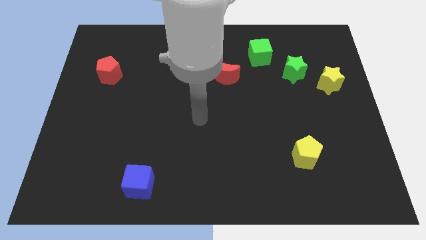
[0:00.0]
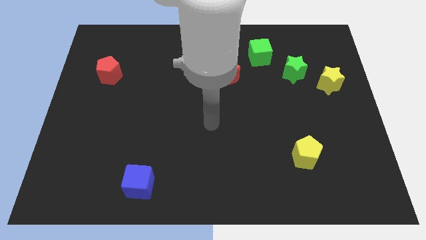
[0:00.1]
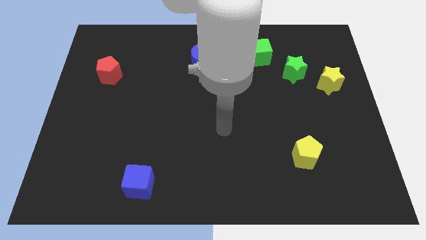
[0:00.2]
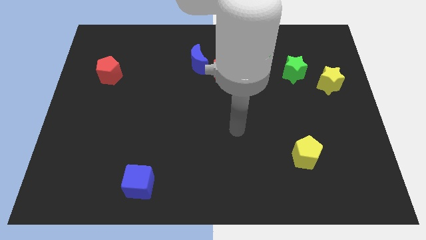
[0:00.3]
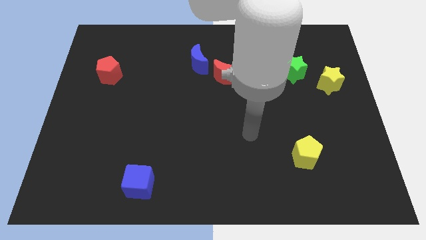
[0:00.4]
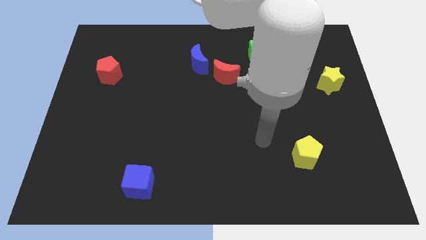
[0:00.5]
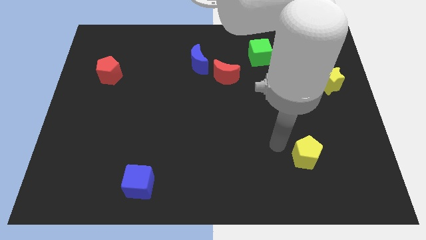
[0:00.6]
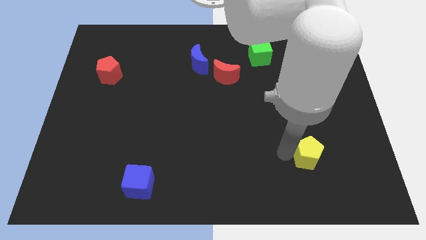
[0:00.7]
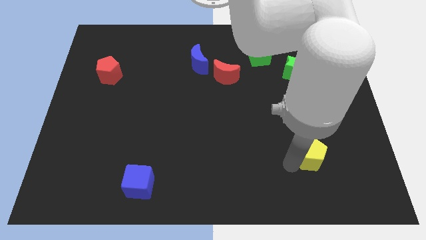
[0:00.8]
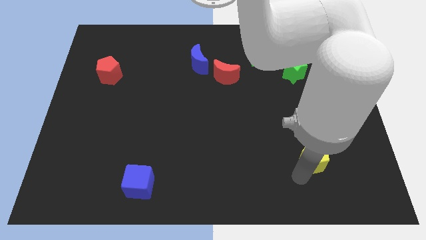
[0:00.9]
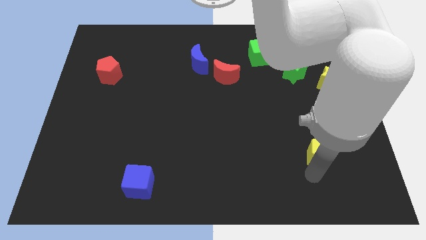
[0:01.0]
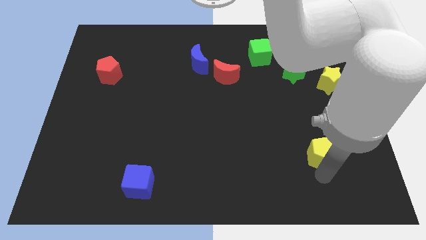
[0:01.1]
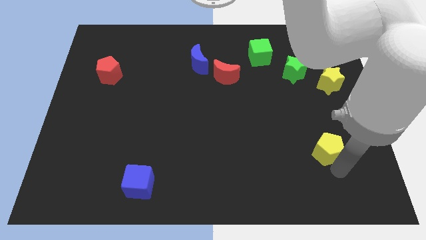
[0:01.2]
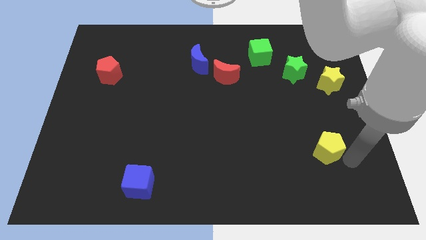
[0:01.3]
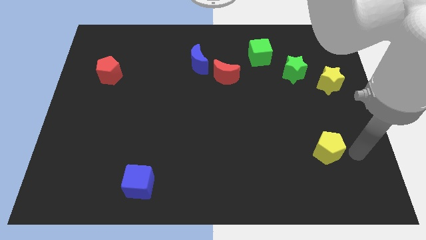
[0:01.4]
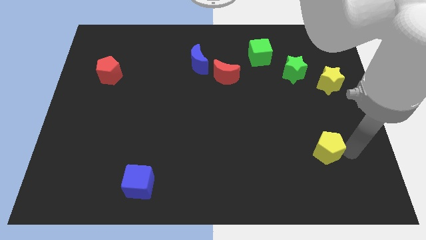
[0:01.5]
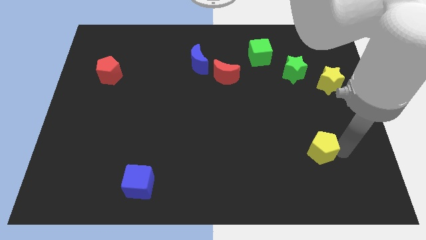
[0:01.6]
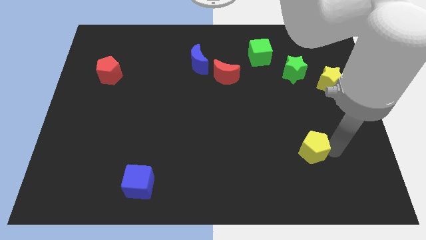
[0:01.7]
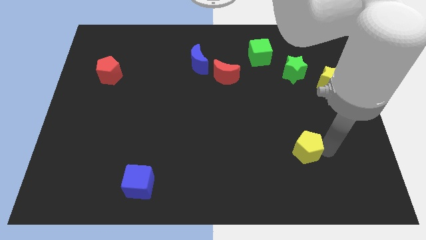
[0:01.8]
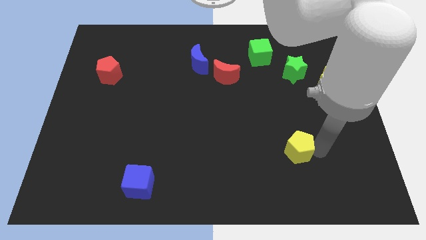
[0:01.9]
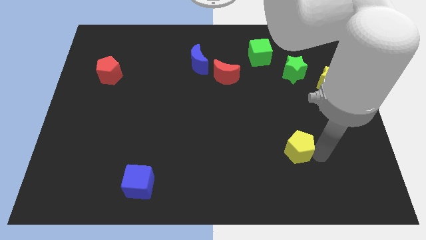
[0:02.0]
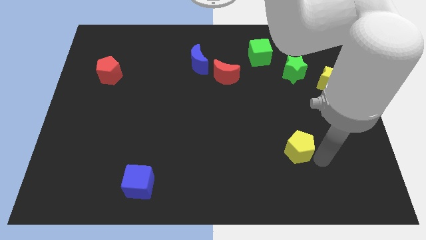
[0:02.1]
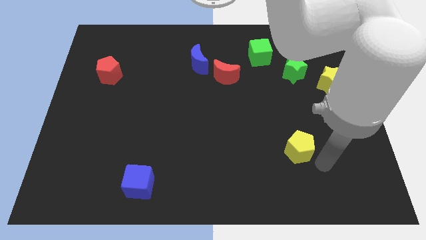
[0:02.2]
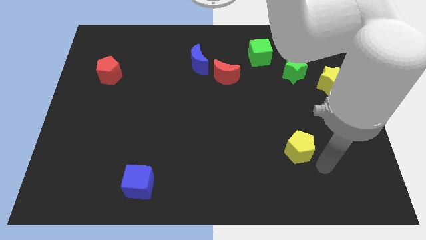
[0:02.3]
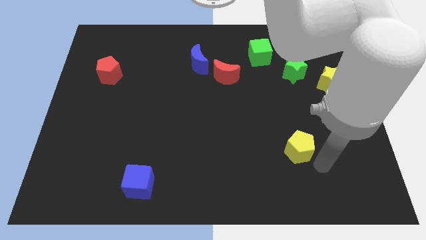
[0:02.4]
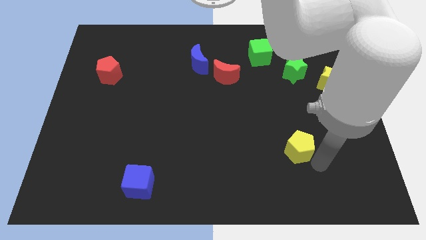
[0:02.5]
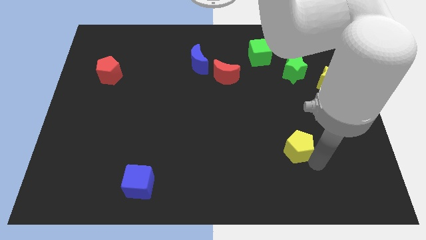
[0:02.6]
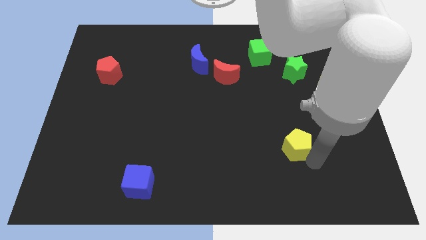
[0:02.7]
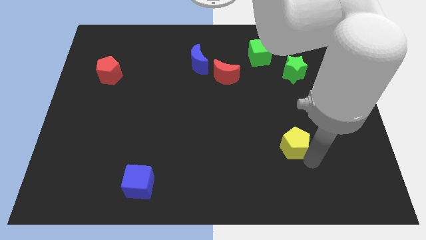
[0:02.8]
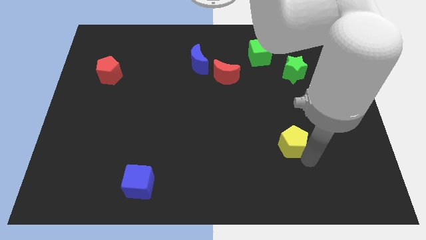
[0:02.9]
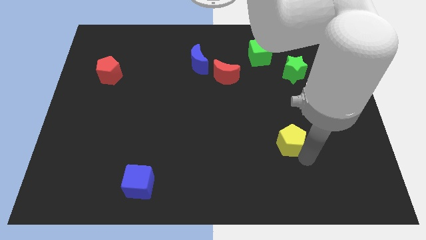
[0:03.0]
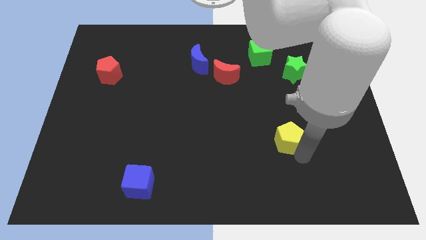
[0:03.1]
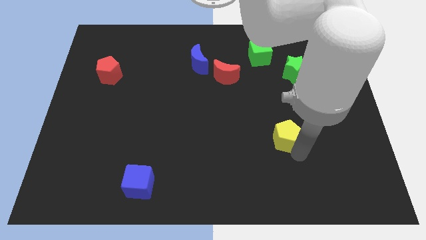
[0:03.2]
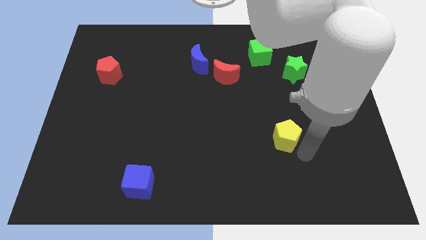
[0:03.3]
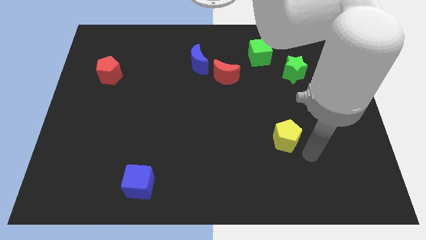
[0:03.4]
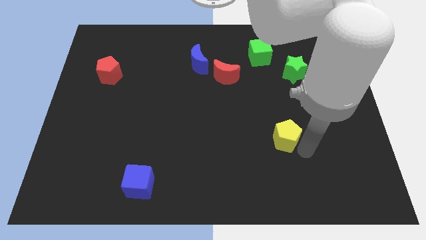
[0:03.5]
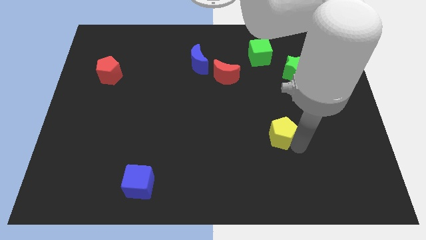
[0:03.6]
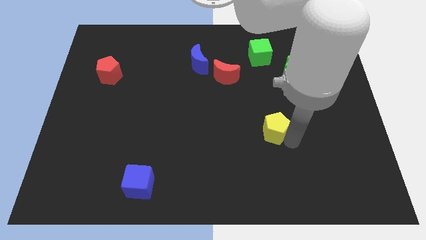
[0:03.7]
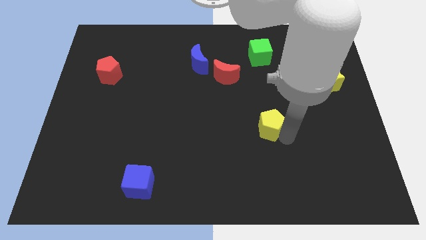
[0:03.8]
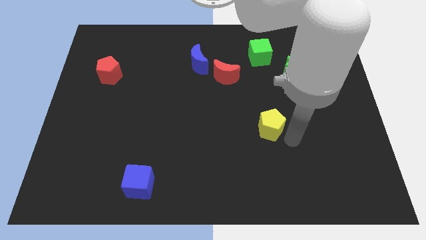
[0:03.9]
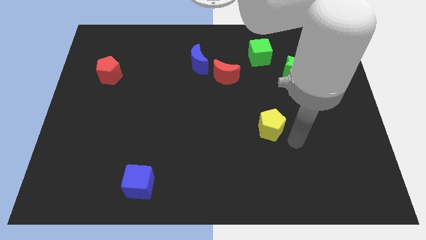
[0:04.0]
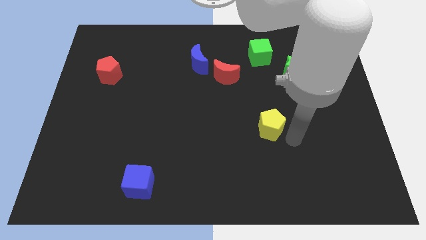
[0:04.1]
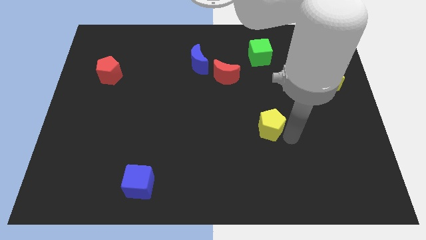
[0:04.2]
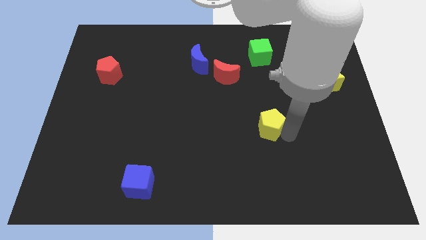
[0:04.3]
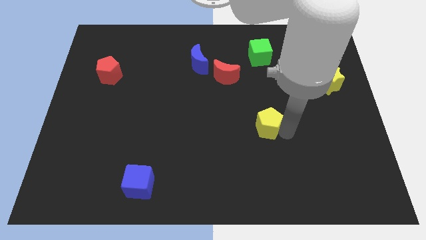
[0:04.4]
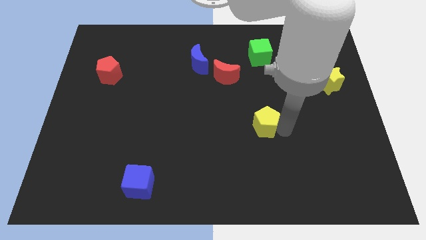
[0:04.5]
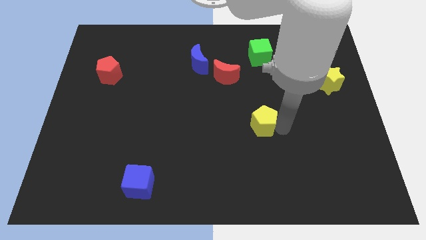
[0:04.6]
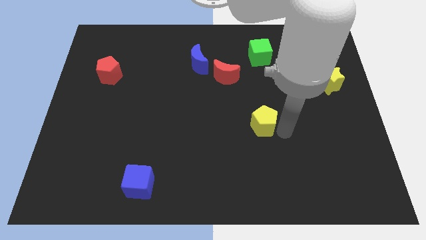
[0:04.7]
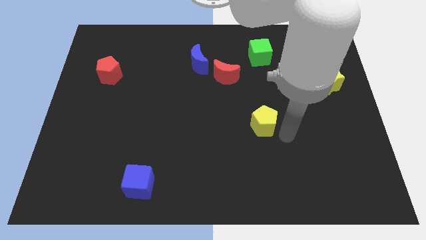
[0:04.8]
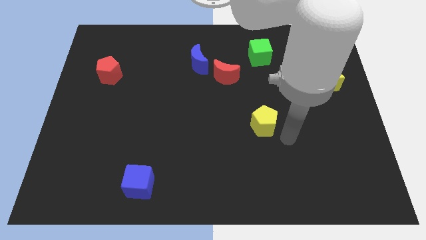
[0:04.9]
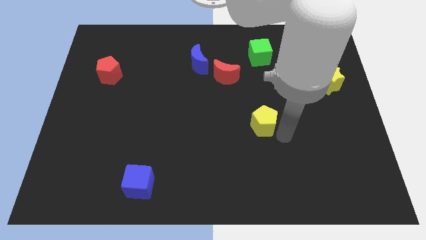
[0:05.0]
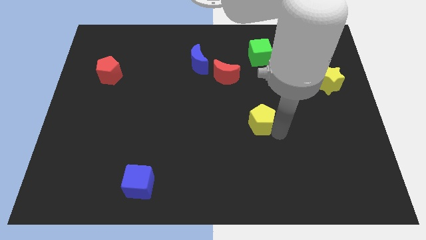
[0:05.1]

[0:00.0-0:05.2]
move the yellow pentagon to the center of the board

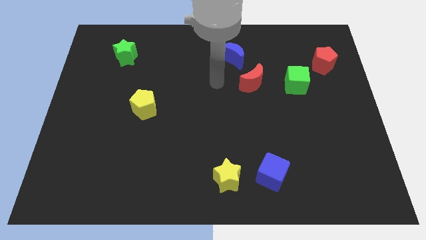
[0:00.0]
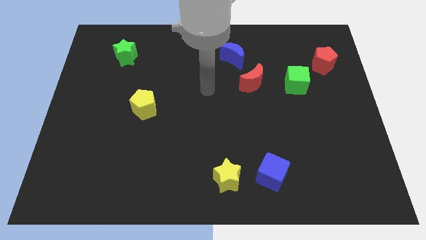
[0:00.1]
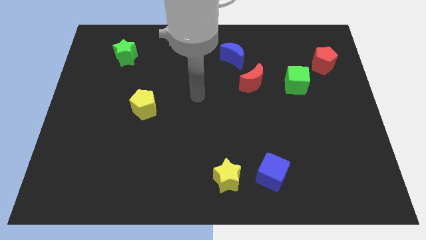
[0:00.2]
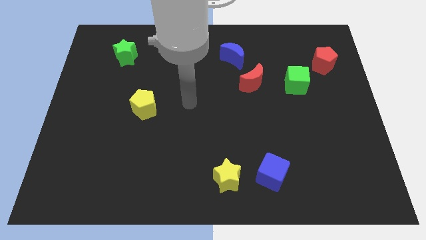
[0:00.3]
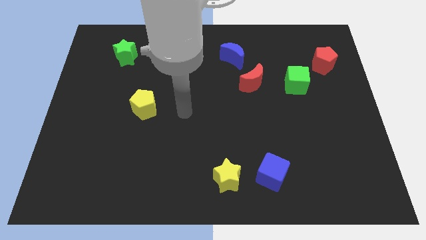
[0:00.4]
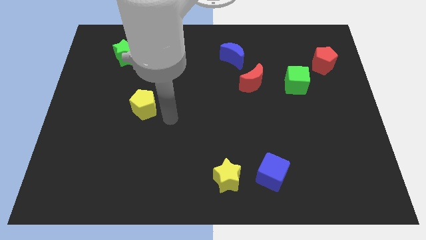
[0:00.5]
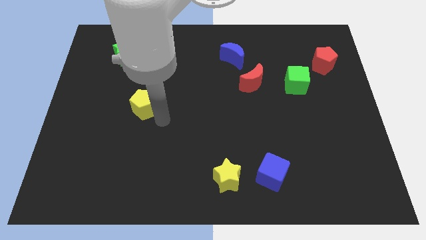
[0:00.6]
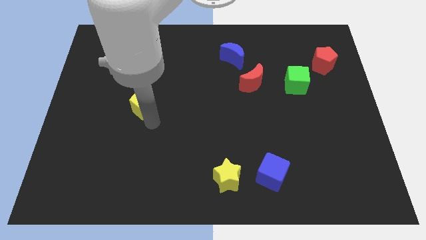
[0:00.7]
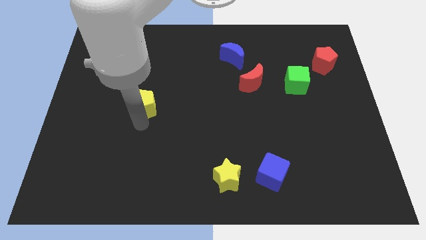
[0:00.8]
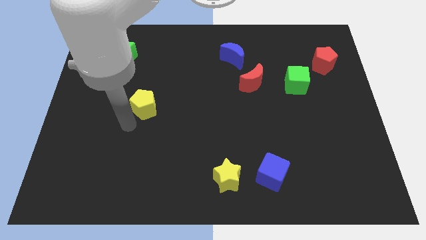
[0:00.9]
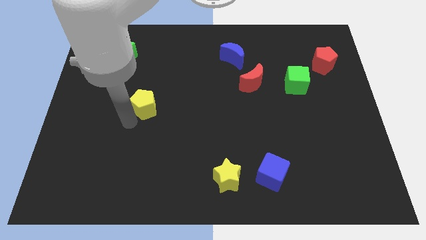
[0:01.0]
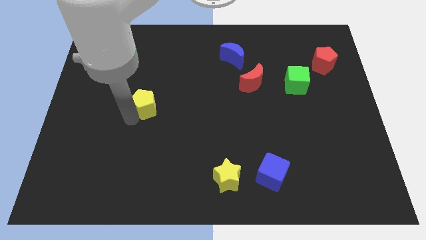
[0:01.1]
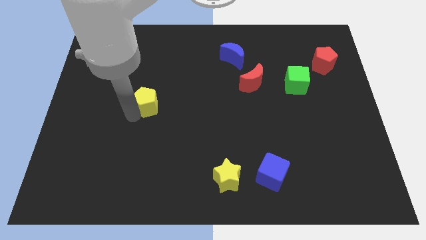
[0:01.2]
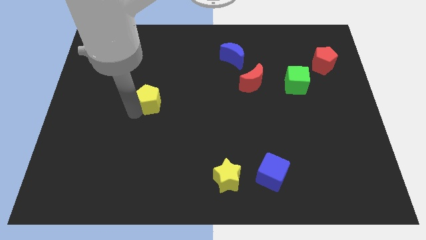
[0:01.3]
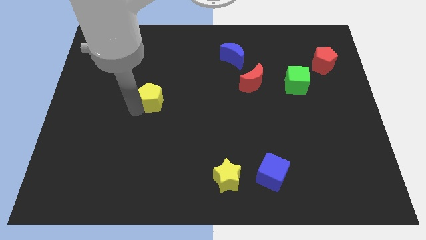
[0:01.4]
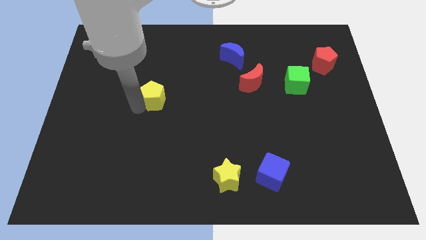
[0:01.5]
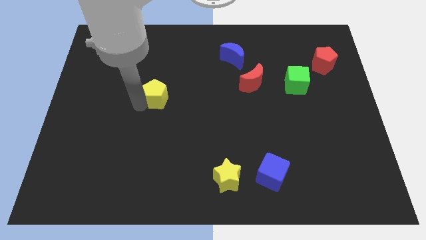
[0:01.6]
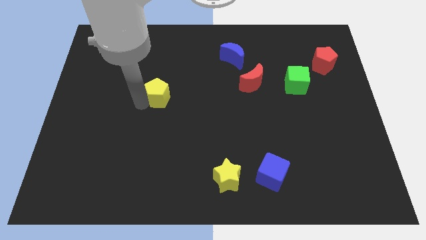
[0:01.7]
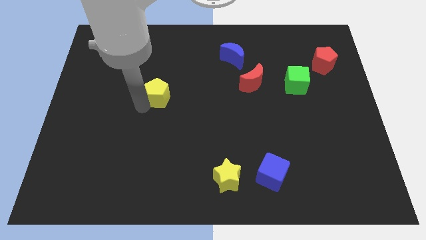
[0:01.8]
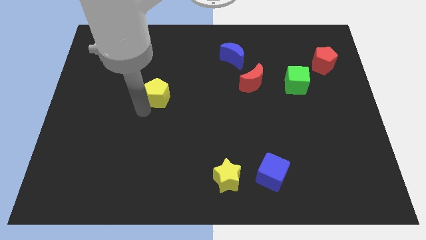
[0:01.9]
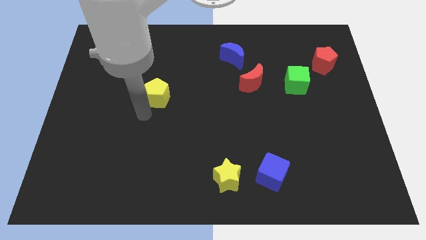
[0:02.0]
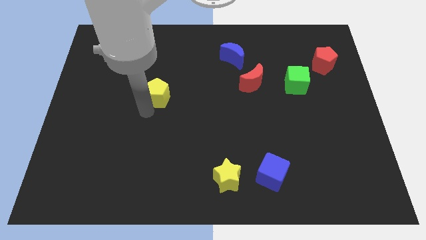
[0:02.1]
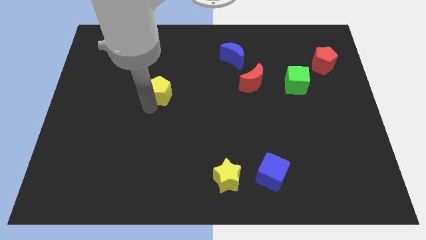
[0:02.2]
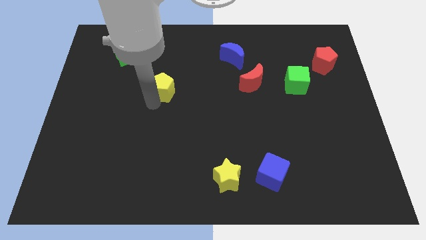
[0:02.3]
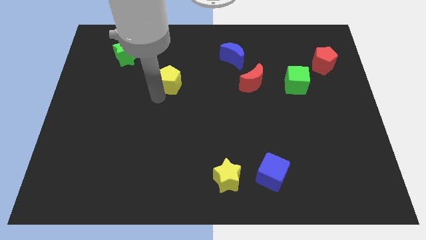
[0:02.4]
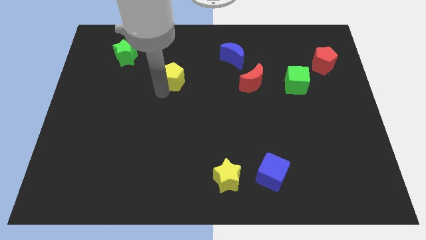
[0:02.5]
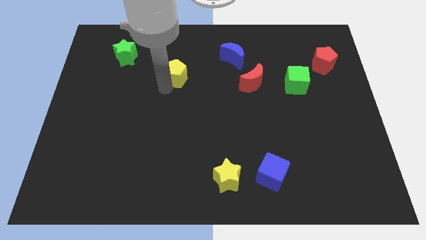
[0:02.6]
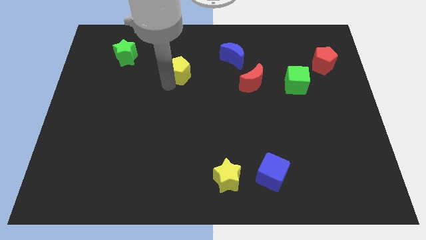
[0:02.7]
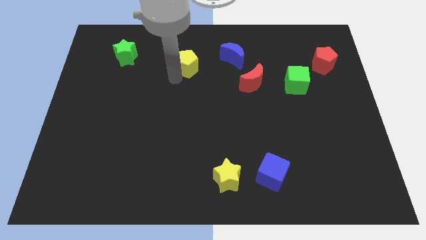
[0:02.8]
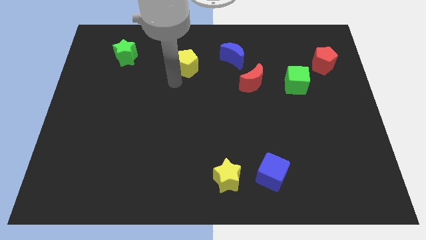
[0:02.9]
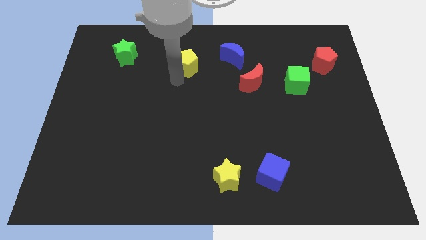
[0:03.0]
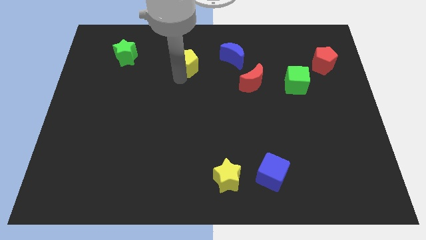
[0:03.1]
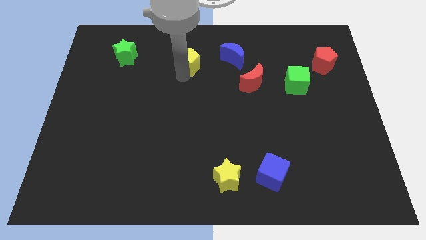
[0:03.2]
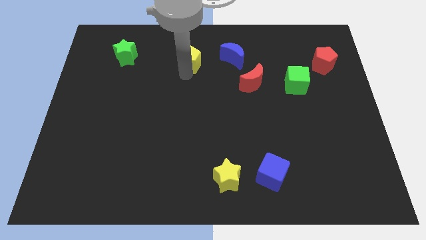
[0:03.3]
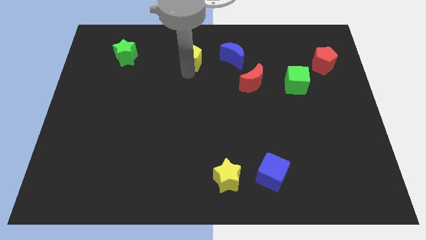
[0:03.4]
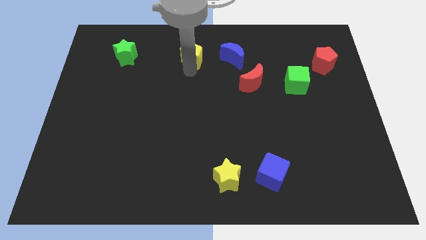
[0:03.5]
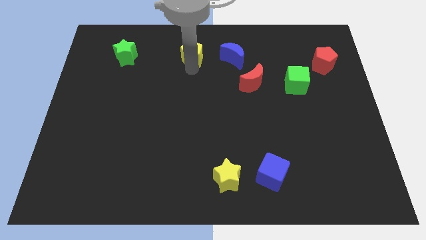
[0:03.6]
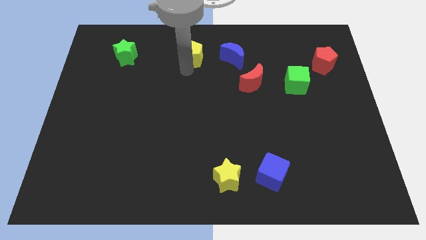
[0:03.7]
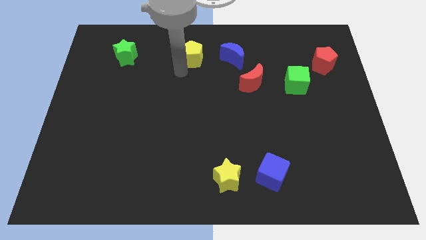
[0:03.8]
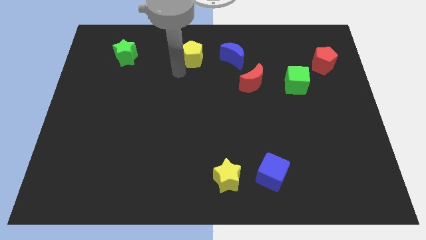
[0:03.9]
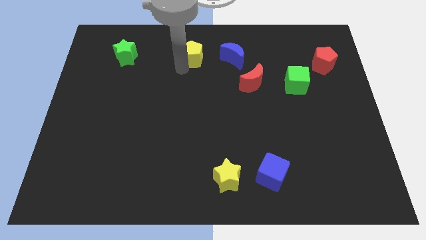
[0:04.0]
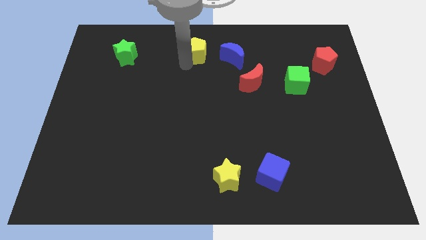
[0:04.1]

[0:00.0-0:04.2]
push the yellow pentagon to the top side
